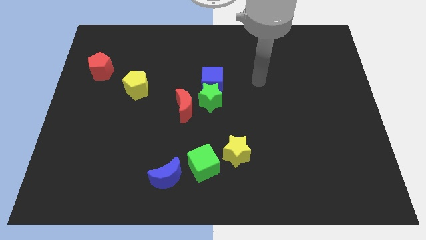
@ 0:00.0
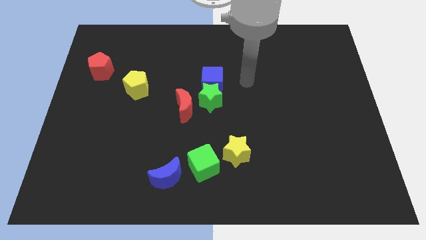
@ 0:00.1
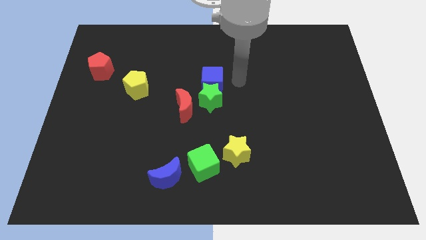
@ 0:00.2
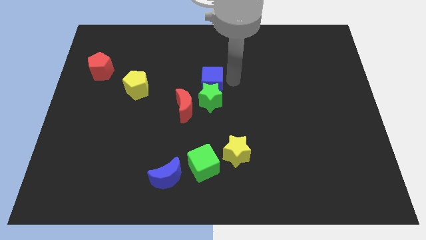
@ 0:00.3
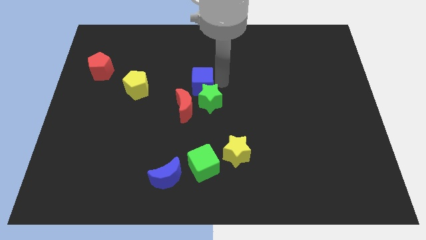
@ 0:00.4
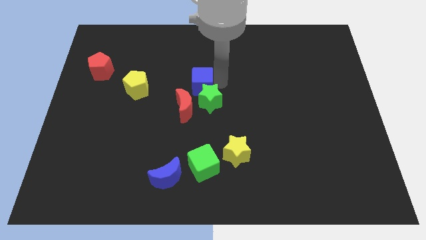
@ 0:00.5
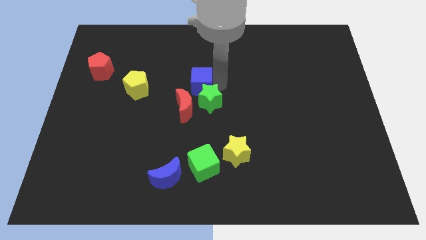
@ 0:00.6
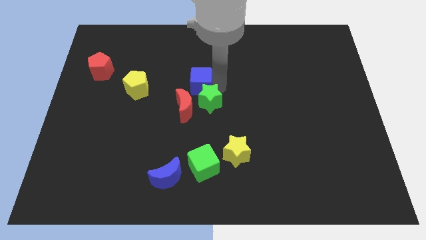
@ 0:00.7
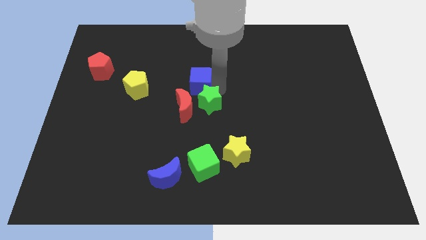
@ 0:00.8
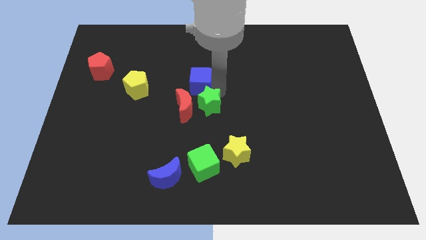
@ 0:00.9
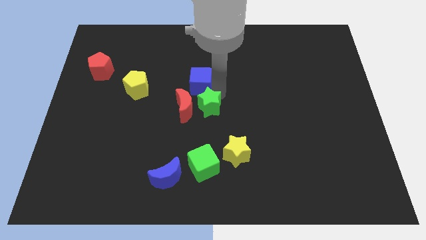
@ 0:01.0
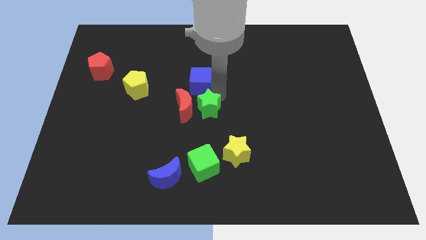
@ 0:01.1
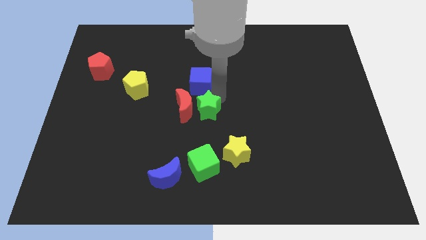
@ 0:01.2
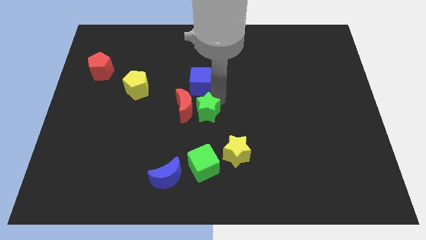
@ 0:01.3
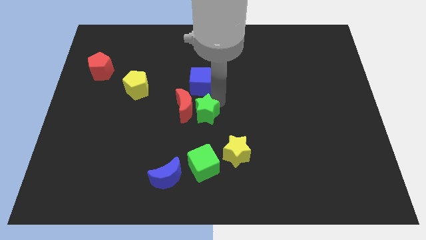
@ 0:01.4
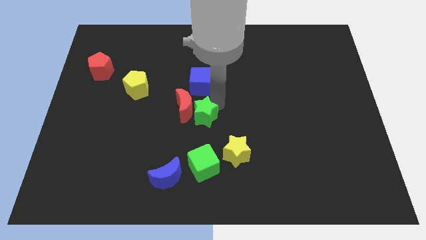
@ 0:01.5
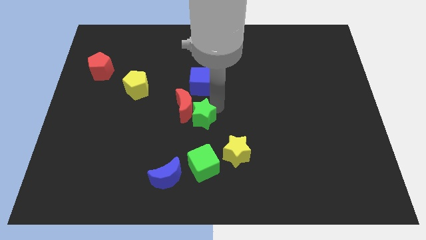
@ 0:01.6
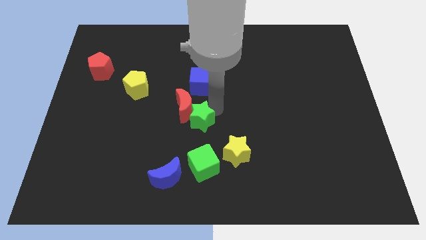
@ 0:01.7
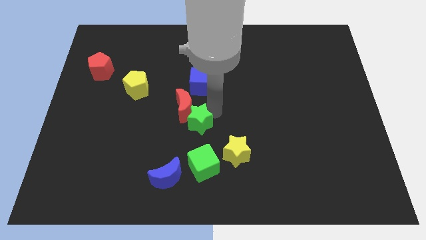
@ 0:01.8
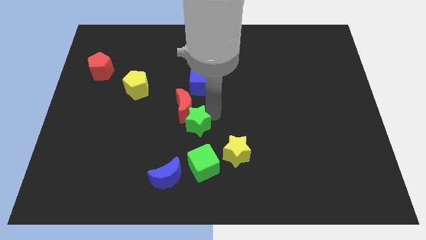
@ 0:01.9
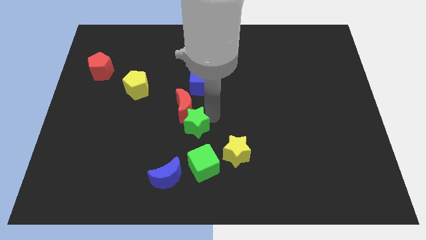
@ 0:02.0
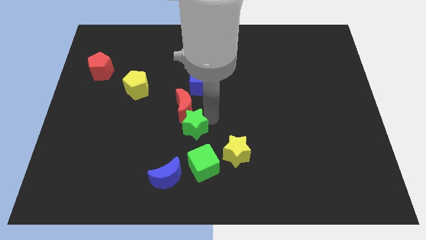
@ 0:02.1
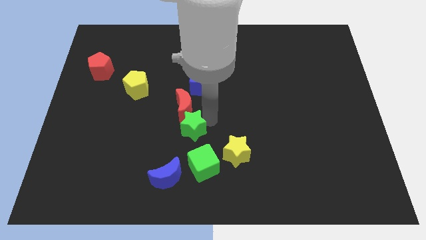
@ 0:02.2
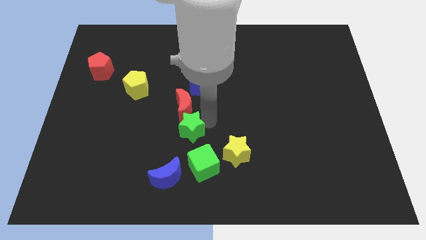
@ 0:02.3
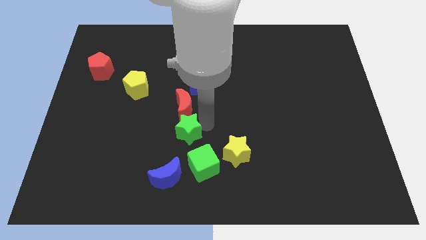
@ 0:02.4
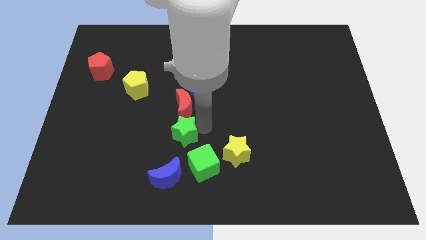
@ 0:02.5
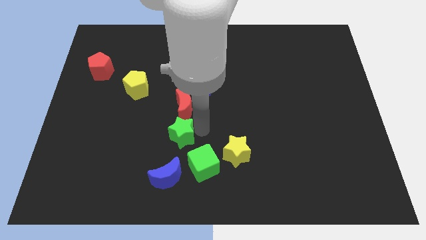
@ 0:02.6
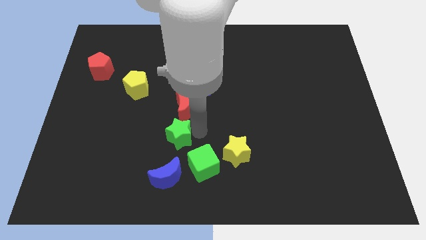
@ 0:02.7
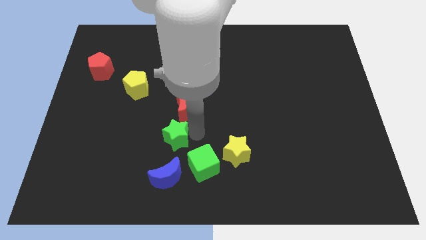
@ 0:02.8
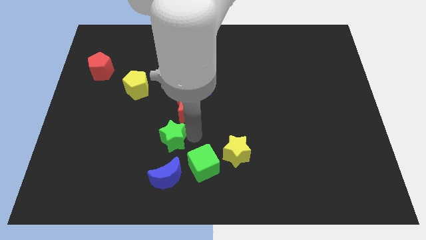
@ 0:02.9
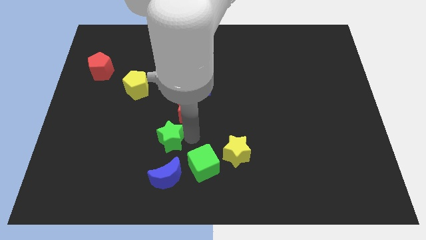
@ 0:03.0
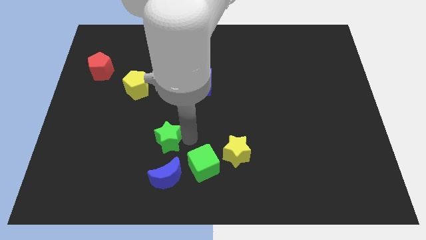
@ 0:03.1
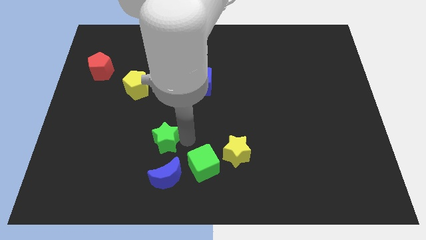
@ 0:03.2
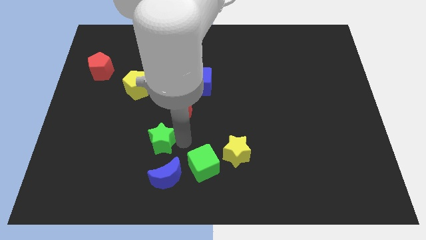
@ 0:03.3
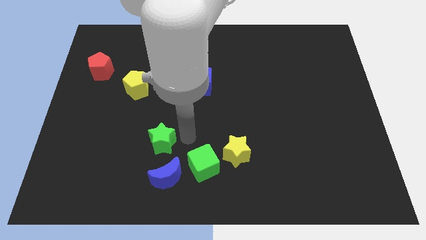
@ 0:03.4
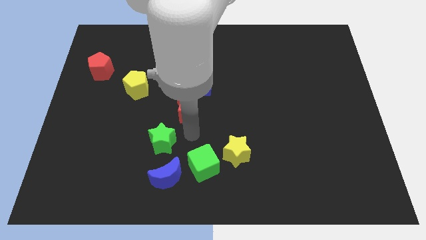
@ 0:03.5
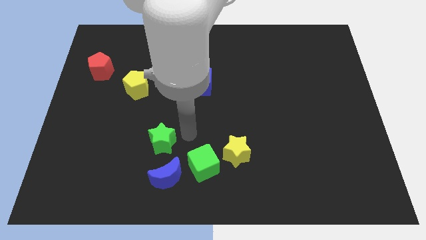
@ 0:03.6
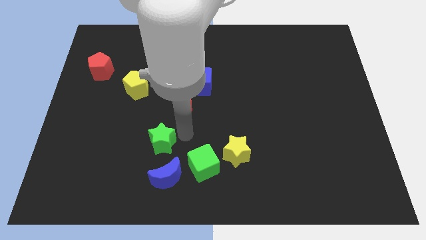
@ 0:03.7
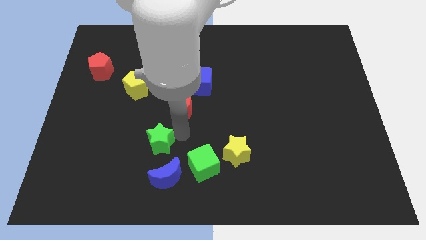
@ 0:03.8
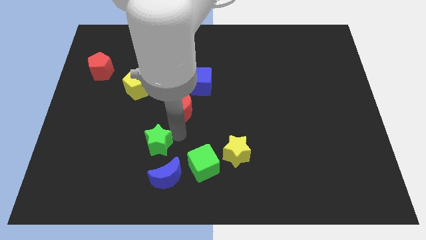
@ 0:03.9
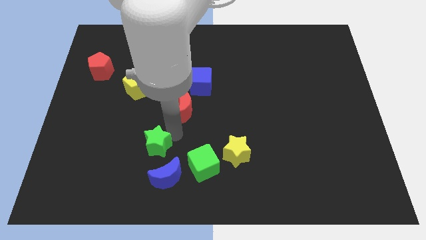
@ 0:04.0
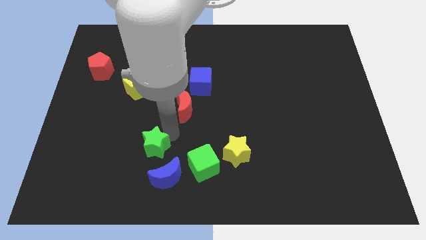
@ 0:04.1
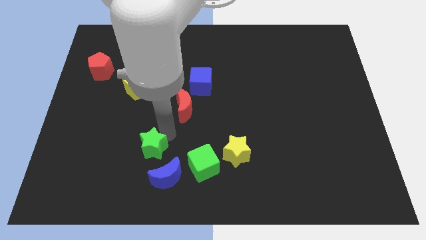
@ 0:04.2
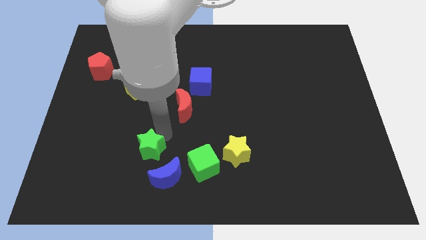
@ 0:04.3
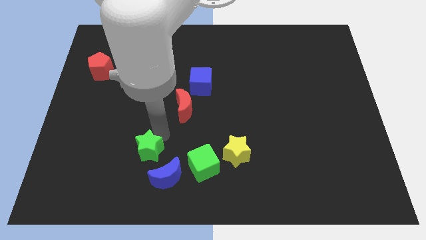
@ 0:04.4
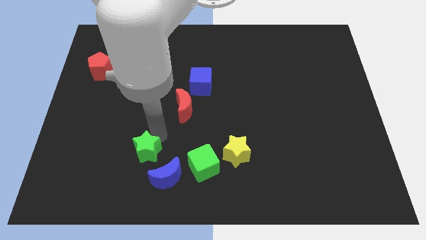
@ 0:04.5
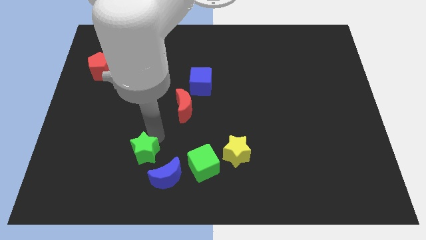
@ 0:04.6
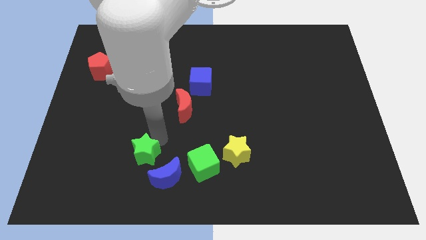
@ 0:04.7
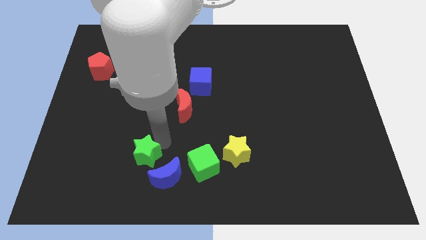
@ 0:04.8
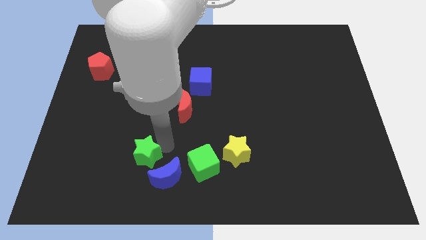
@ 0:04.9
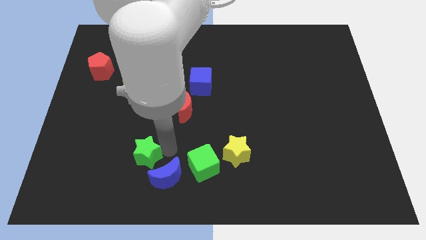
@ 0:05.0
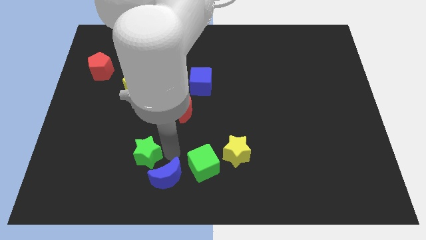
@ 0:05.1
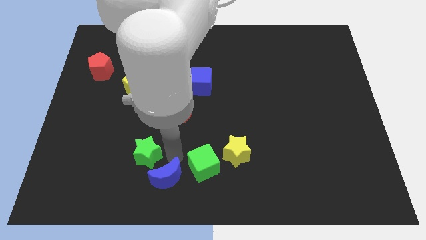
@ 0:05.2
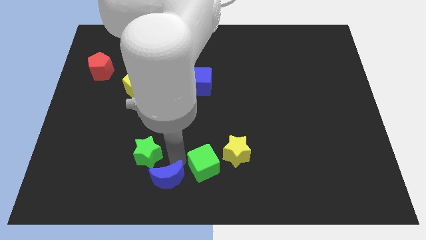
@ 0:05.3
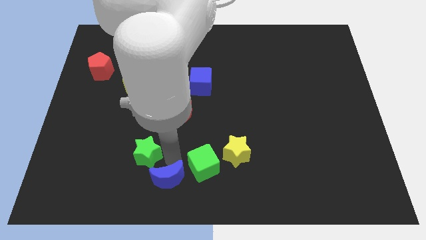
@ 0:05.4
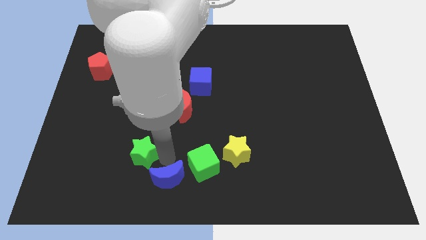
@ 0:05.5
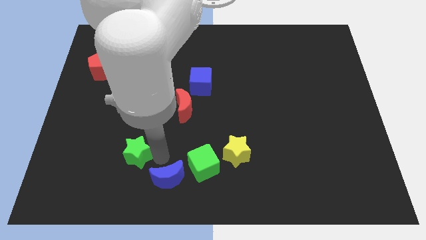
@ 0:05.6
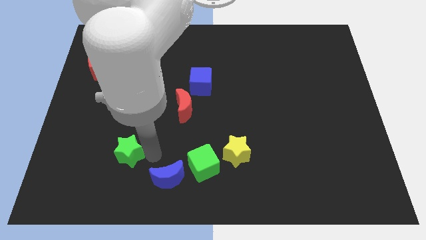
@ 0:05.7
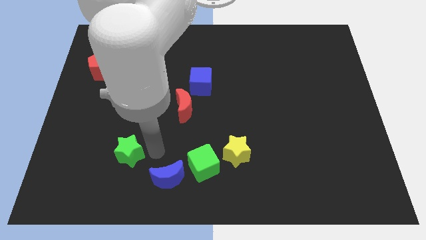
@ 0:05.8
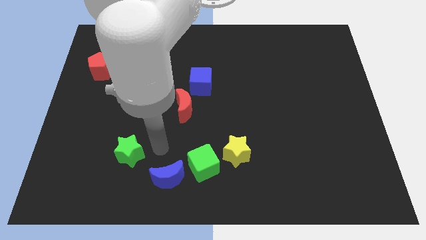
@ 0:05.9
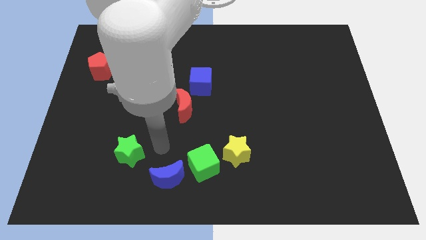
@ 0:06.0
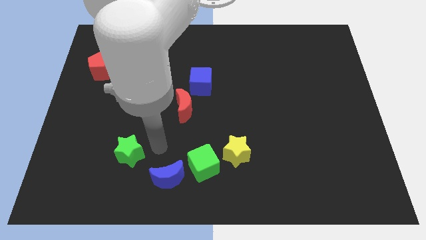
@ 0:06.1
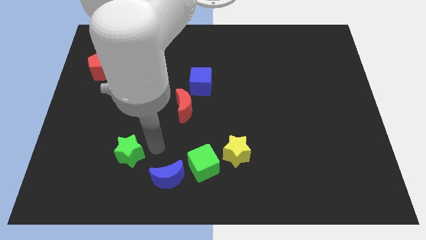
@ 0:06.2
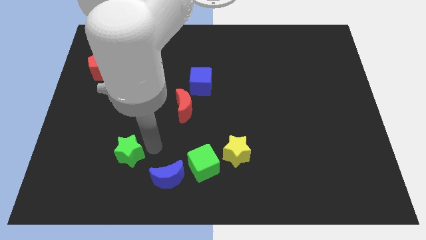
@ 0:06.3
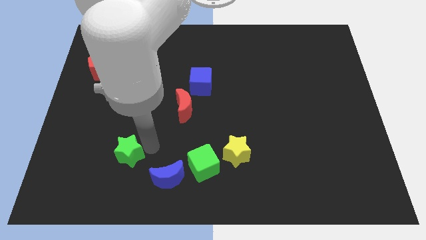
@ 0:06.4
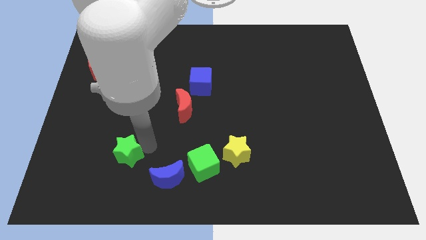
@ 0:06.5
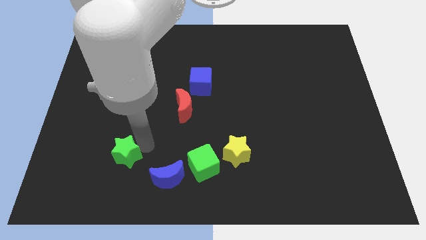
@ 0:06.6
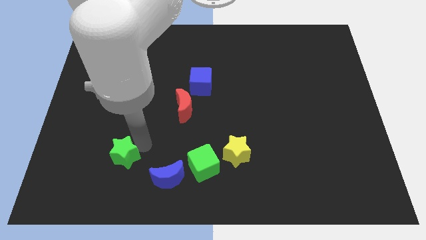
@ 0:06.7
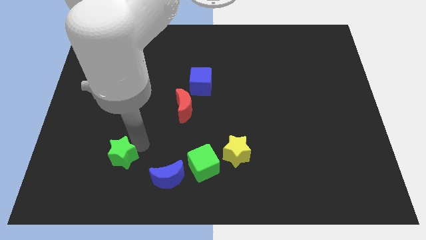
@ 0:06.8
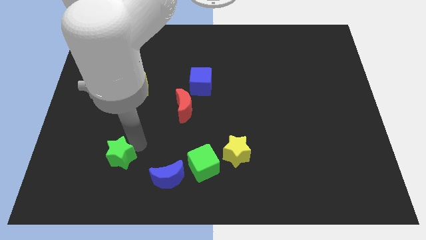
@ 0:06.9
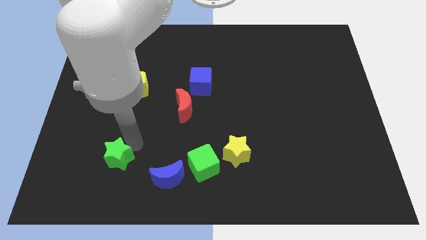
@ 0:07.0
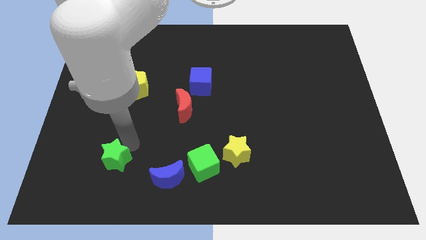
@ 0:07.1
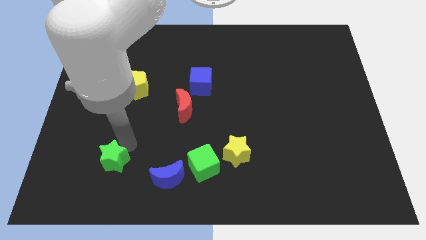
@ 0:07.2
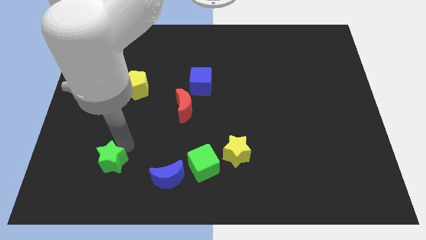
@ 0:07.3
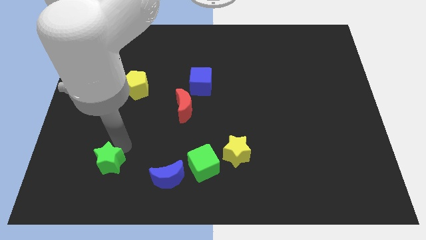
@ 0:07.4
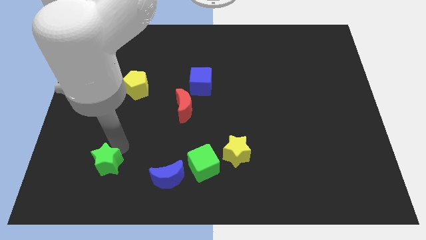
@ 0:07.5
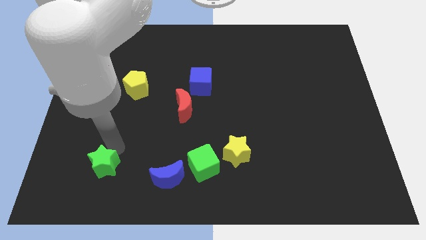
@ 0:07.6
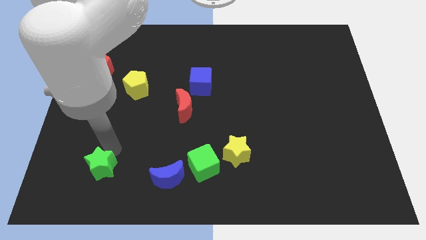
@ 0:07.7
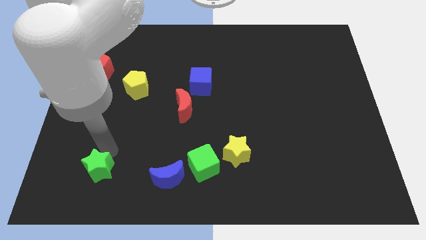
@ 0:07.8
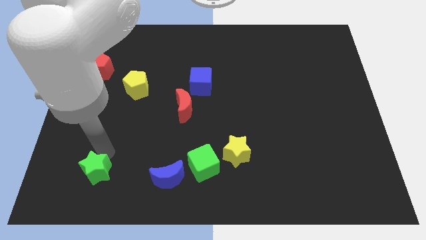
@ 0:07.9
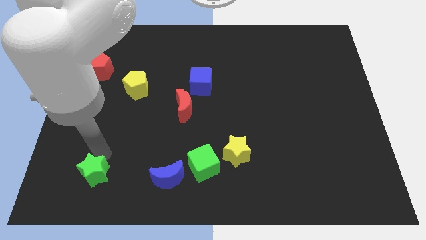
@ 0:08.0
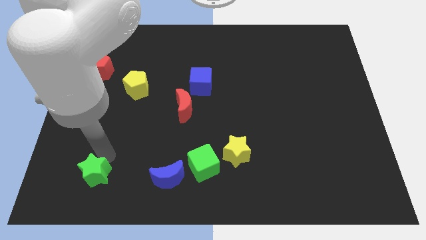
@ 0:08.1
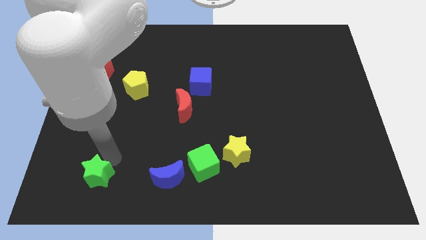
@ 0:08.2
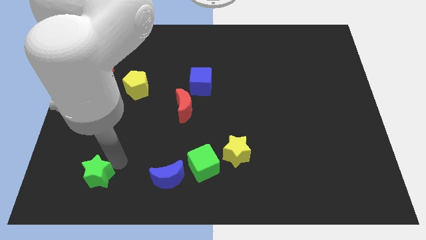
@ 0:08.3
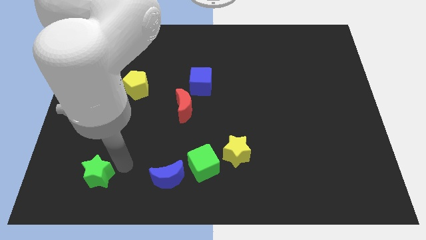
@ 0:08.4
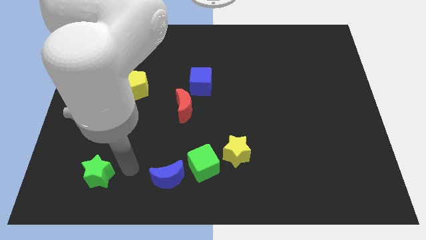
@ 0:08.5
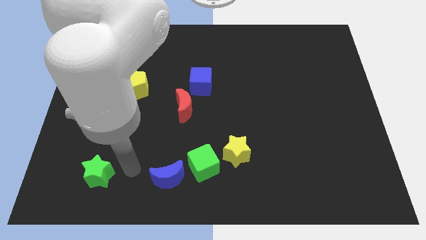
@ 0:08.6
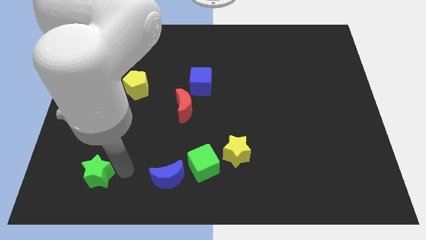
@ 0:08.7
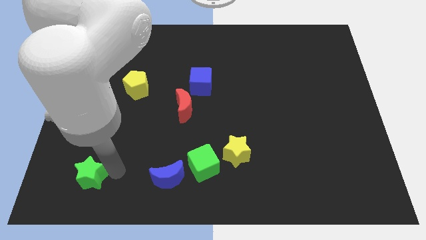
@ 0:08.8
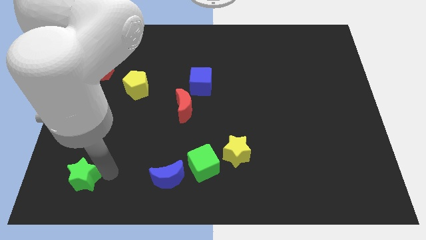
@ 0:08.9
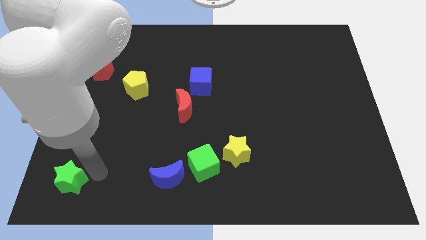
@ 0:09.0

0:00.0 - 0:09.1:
put the green star to the bottom left corner
